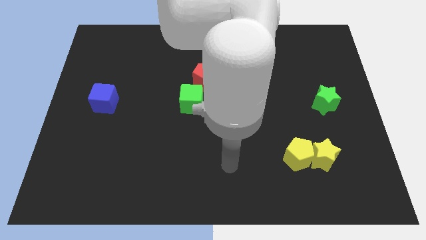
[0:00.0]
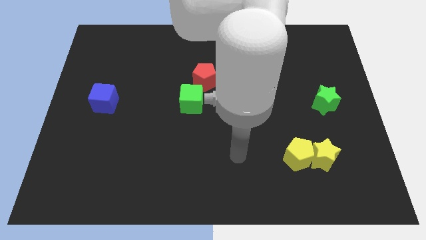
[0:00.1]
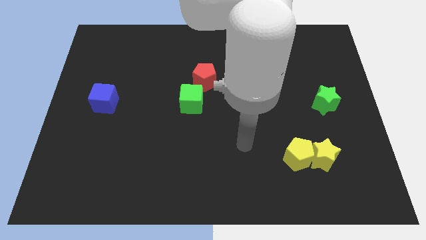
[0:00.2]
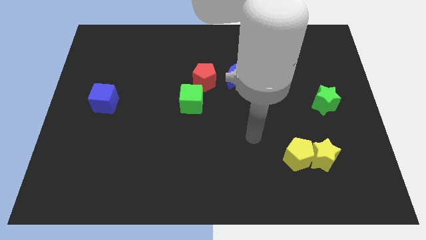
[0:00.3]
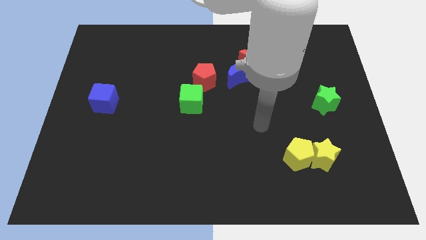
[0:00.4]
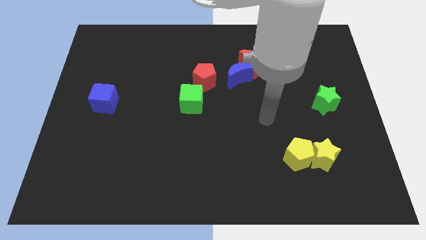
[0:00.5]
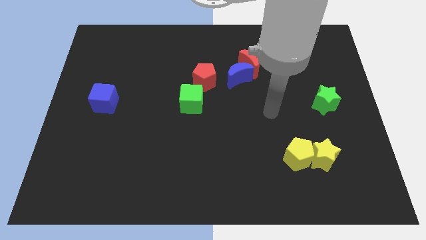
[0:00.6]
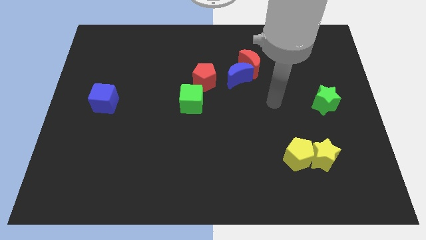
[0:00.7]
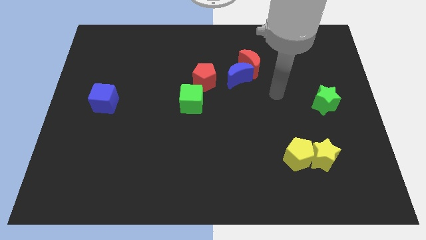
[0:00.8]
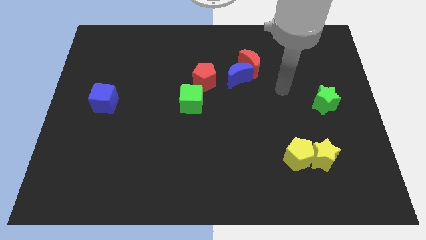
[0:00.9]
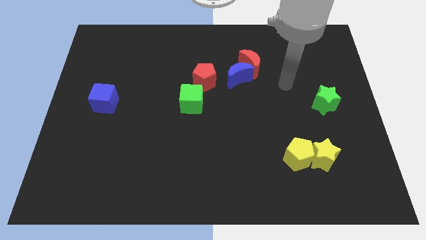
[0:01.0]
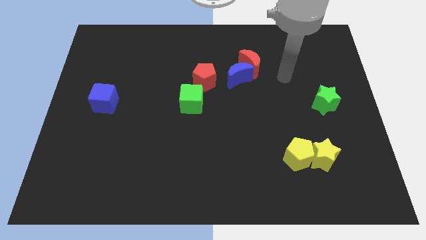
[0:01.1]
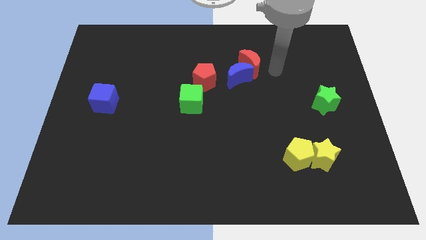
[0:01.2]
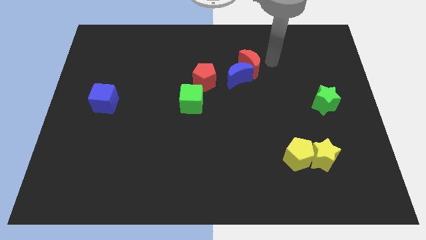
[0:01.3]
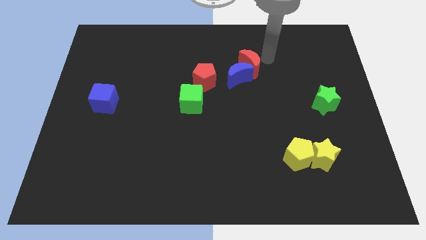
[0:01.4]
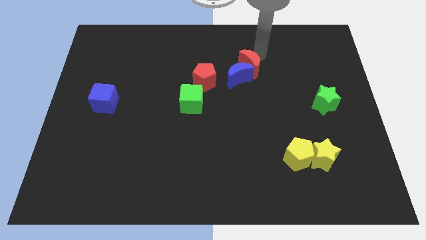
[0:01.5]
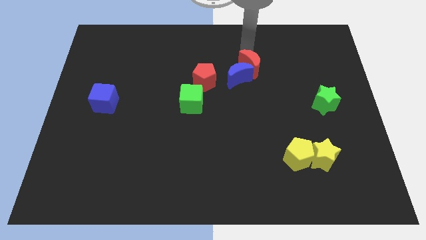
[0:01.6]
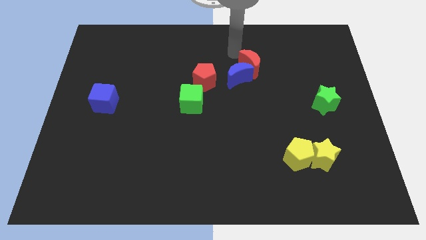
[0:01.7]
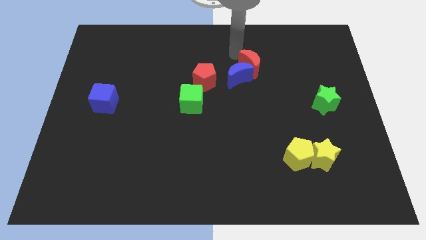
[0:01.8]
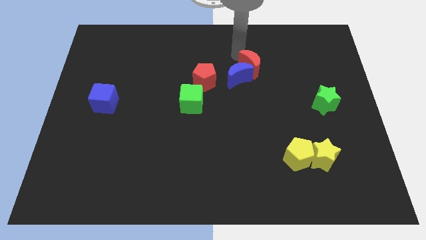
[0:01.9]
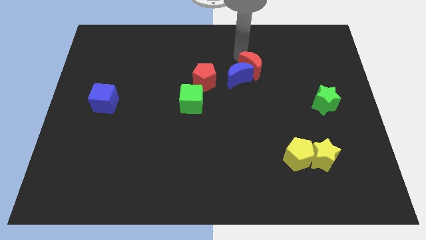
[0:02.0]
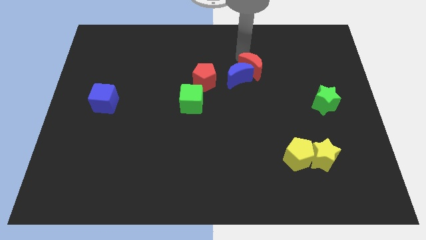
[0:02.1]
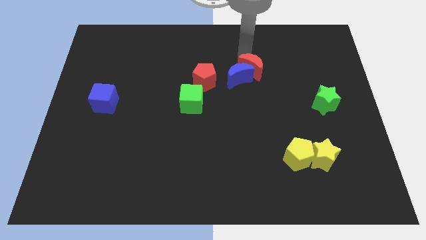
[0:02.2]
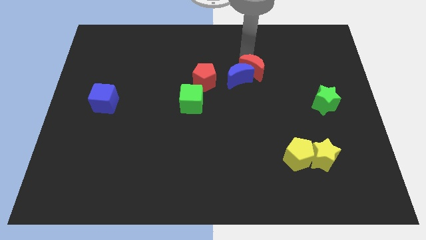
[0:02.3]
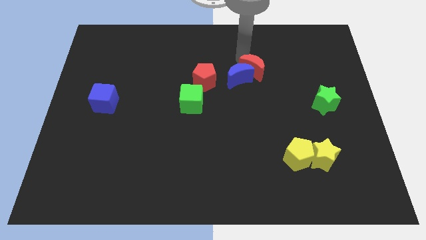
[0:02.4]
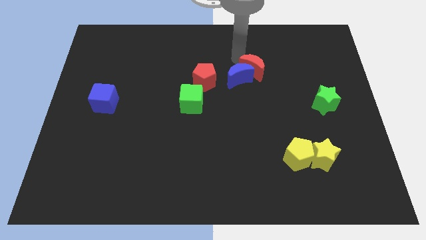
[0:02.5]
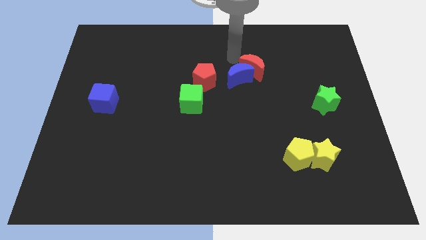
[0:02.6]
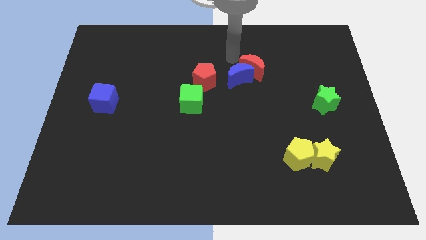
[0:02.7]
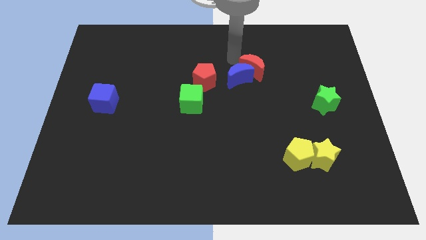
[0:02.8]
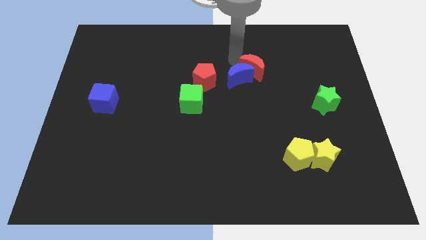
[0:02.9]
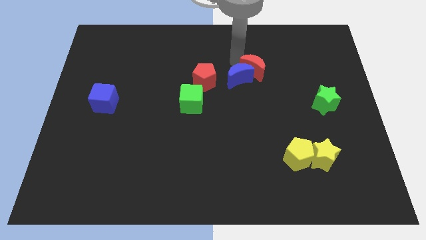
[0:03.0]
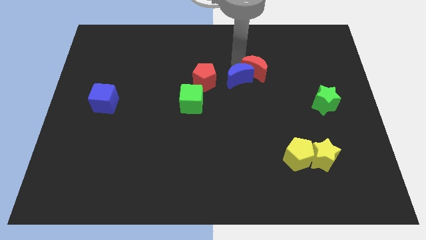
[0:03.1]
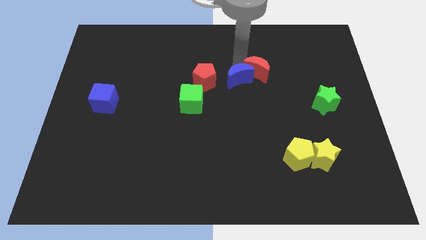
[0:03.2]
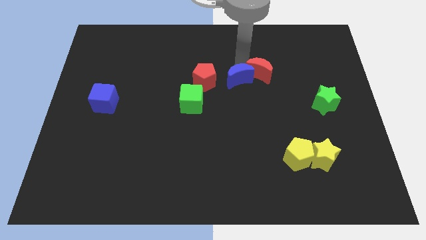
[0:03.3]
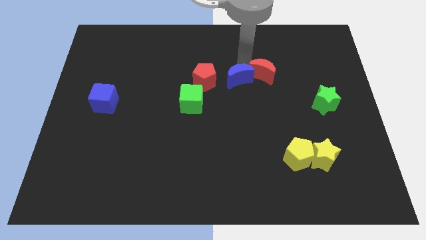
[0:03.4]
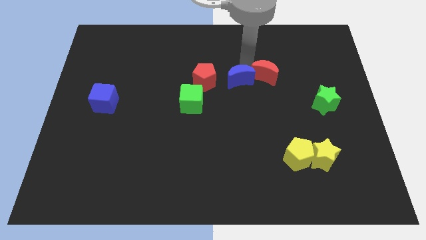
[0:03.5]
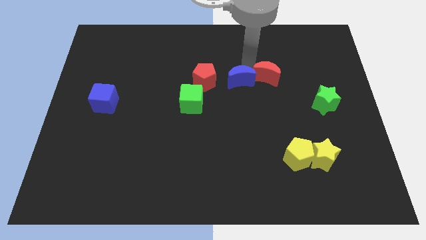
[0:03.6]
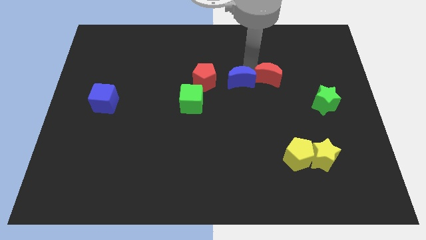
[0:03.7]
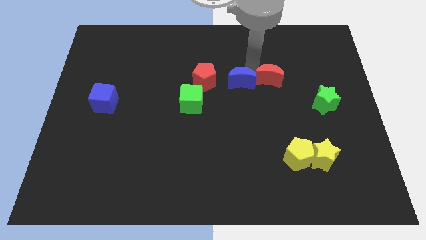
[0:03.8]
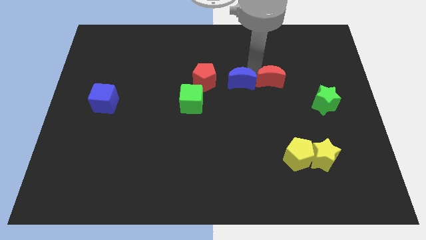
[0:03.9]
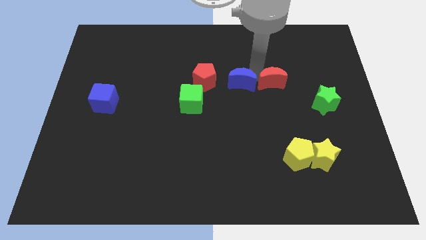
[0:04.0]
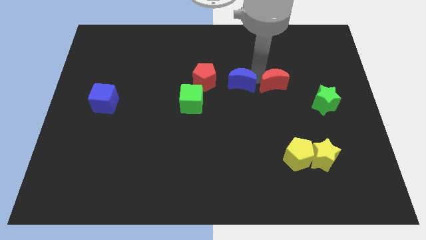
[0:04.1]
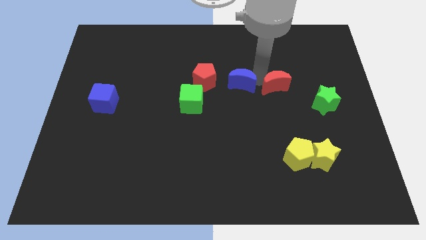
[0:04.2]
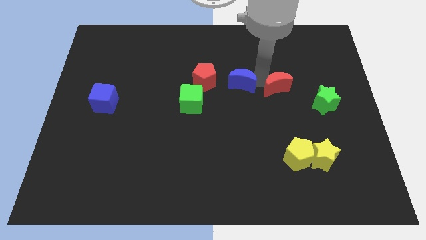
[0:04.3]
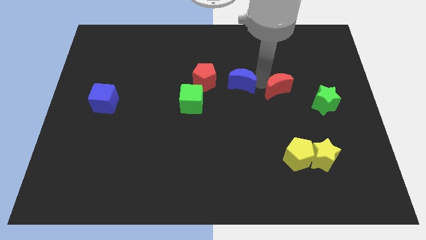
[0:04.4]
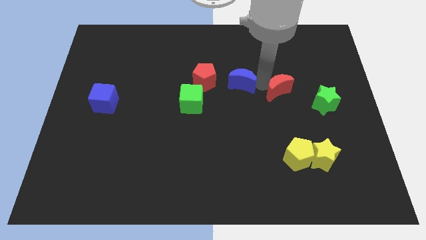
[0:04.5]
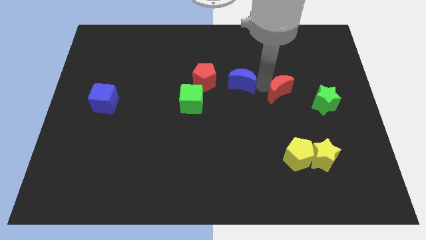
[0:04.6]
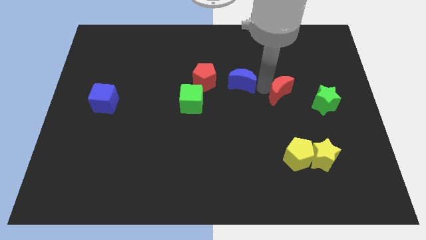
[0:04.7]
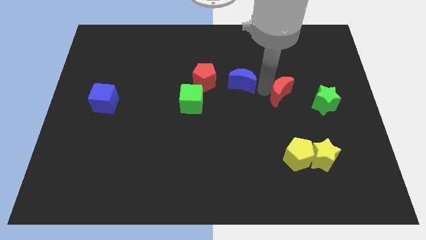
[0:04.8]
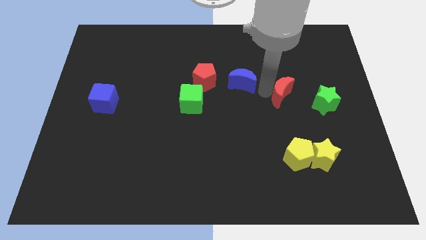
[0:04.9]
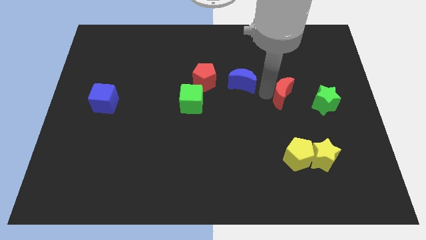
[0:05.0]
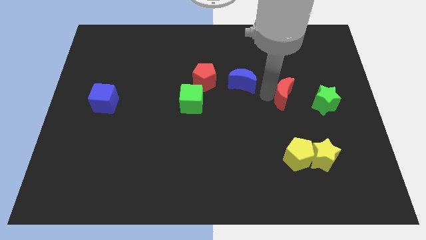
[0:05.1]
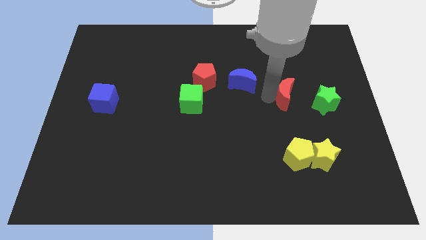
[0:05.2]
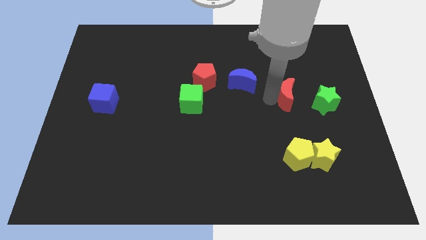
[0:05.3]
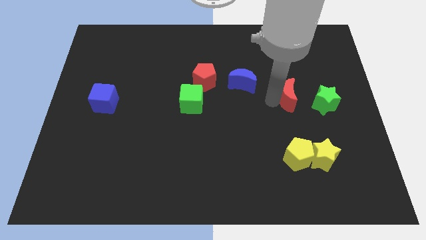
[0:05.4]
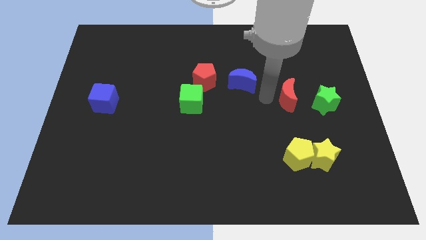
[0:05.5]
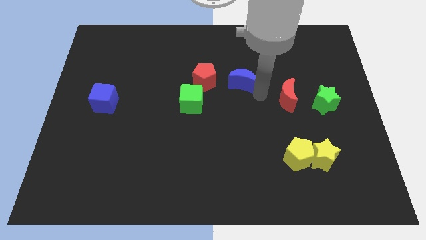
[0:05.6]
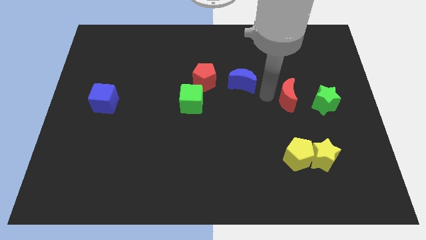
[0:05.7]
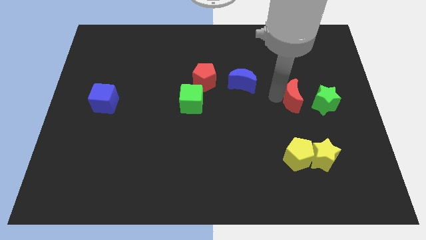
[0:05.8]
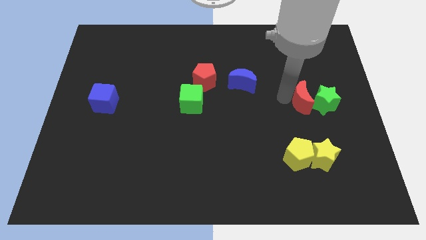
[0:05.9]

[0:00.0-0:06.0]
slide the red moon next to the green star

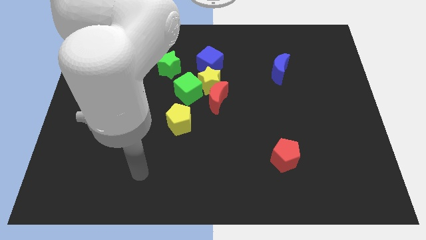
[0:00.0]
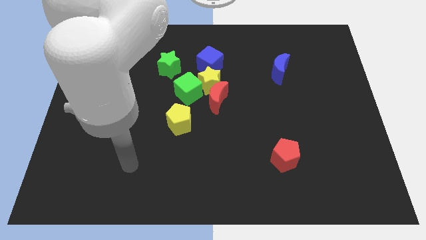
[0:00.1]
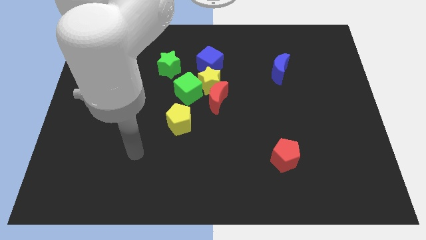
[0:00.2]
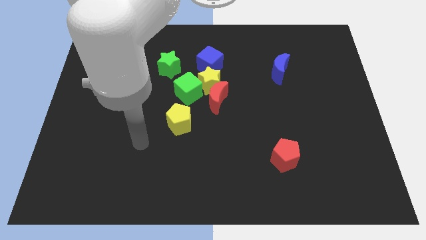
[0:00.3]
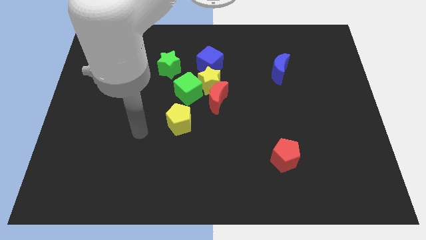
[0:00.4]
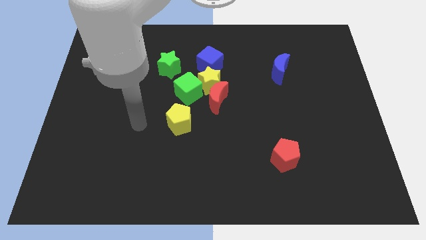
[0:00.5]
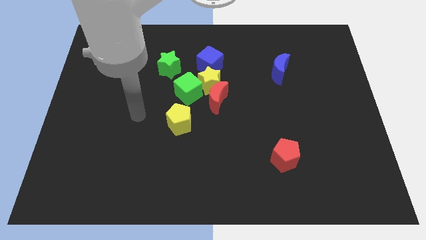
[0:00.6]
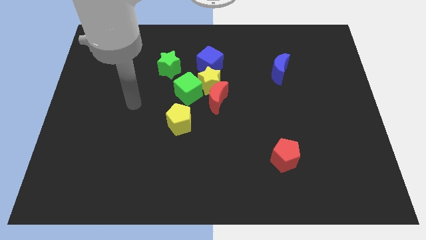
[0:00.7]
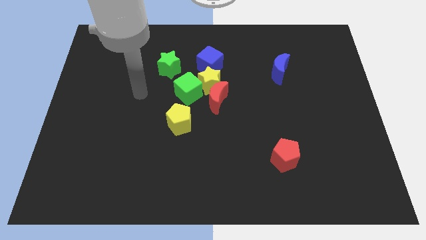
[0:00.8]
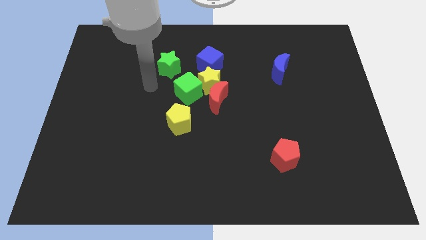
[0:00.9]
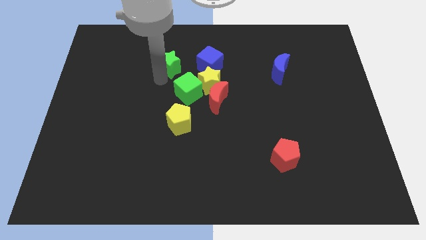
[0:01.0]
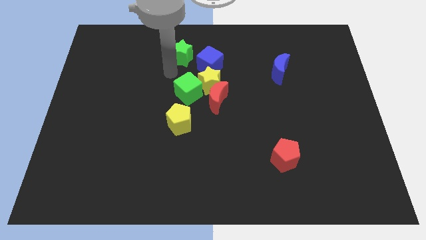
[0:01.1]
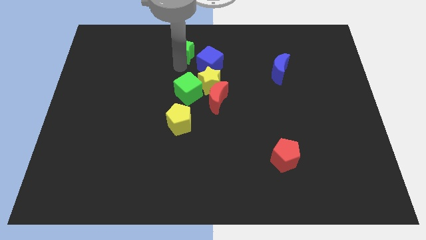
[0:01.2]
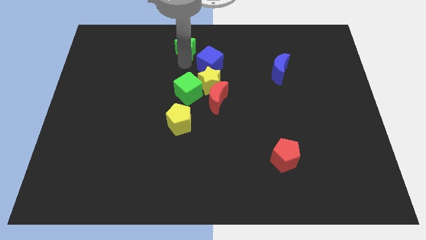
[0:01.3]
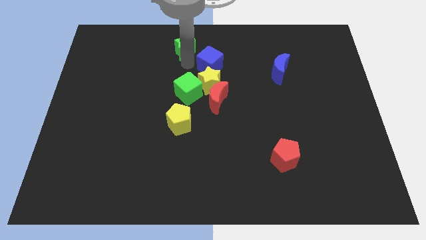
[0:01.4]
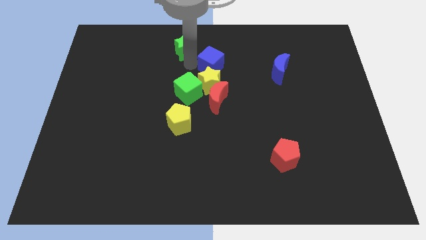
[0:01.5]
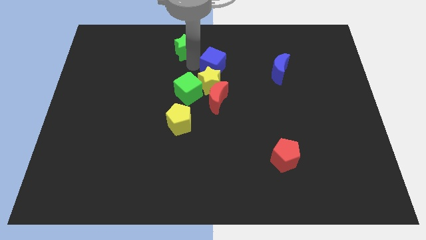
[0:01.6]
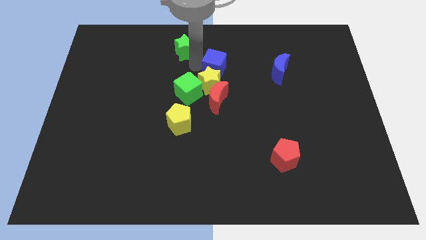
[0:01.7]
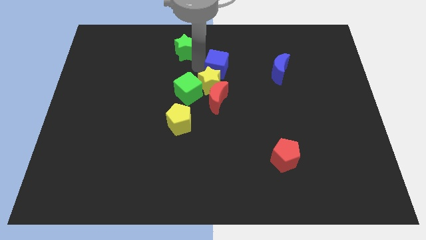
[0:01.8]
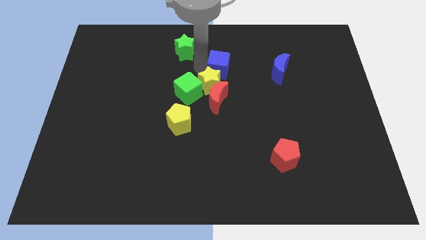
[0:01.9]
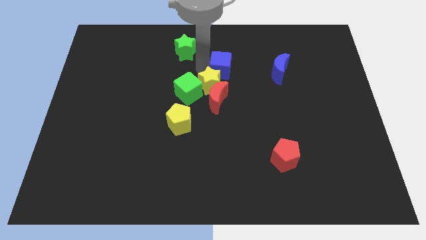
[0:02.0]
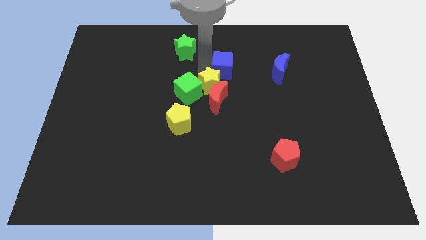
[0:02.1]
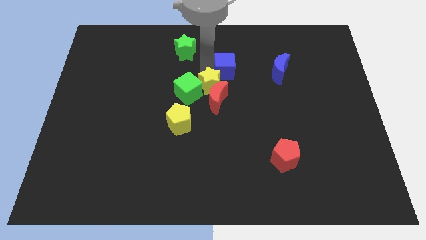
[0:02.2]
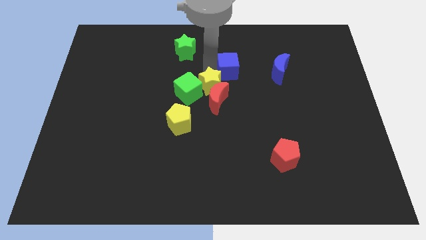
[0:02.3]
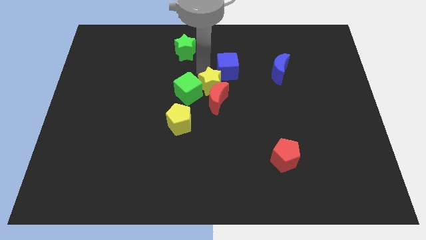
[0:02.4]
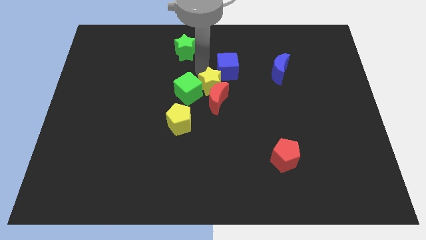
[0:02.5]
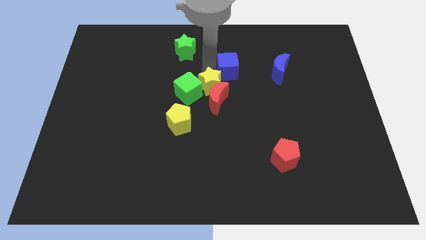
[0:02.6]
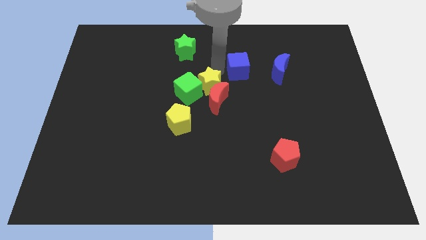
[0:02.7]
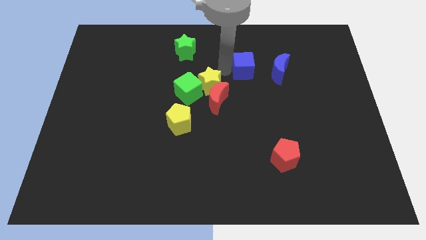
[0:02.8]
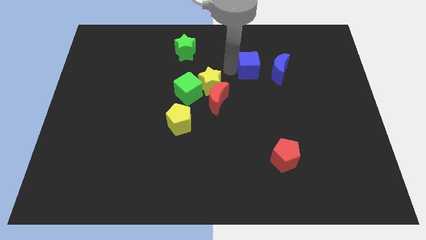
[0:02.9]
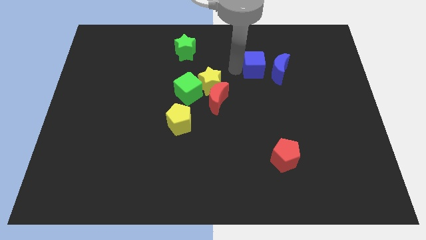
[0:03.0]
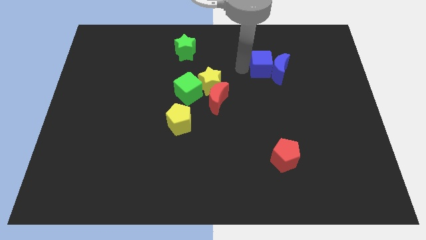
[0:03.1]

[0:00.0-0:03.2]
put the blue cube towards the blue moon
